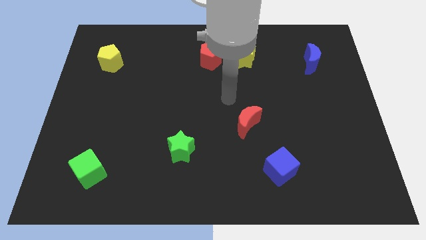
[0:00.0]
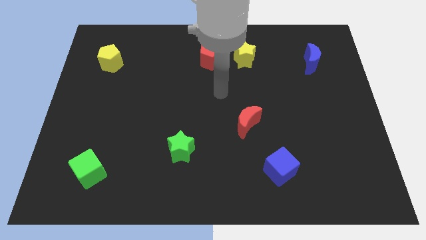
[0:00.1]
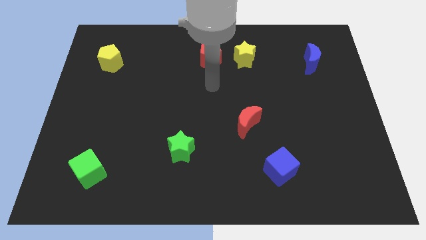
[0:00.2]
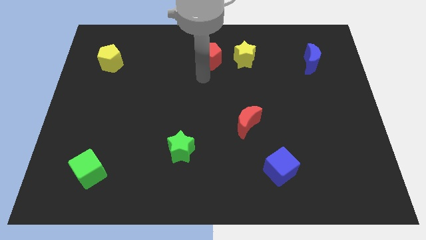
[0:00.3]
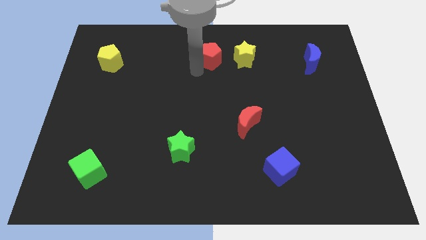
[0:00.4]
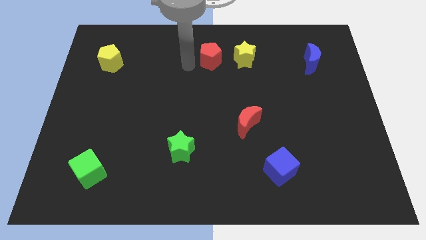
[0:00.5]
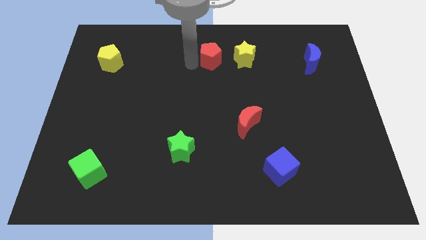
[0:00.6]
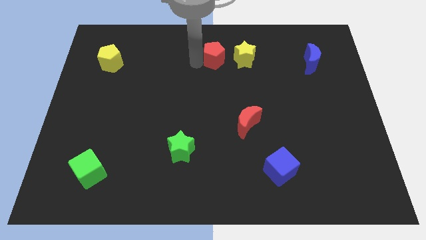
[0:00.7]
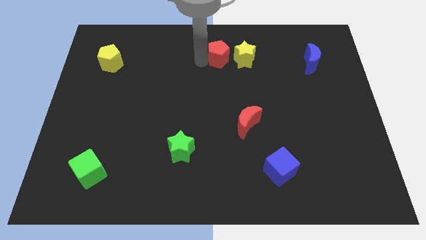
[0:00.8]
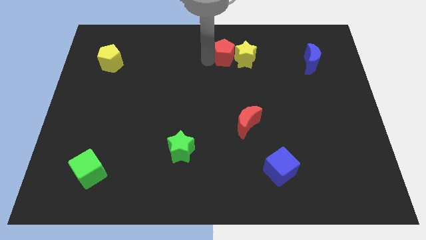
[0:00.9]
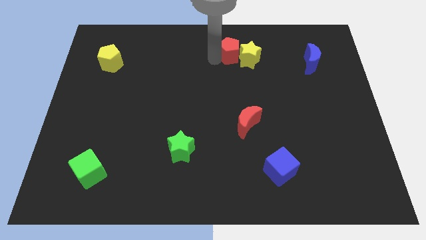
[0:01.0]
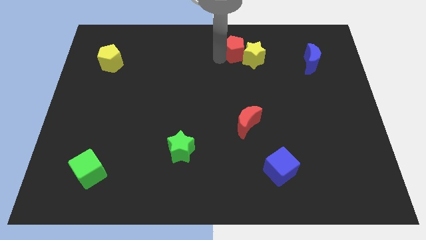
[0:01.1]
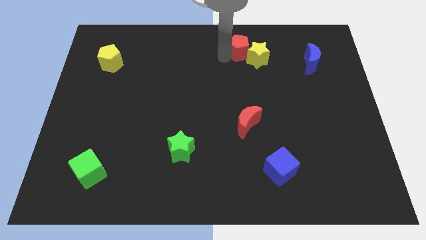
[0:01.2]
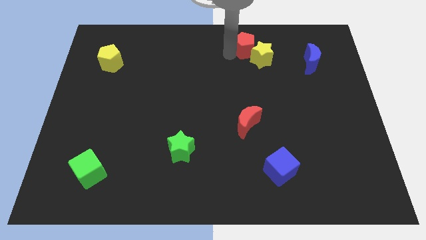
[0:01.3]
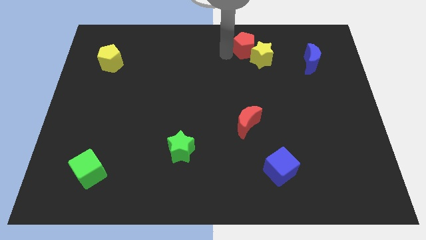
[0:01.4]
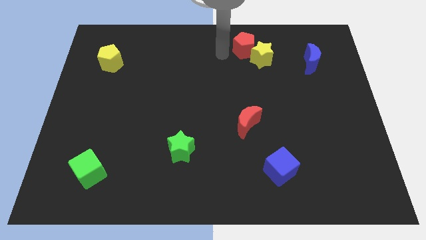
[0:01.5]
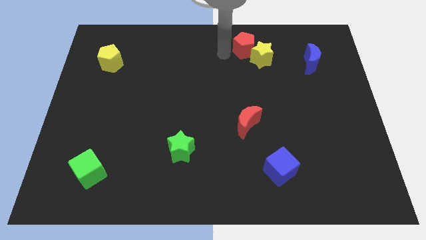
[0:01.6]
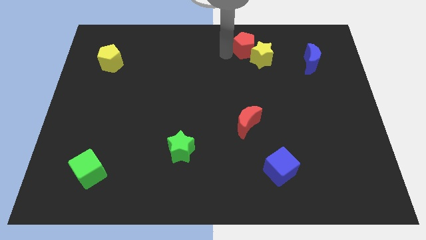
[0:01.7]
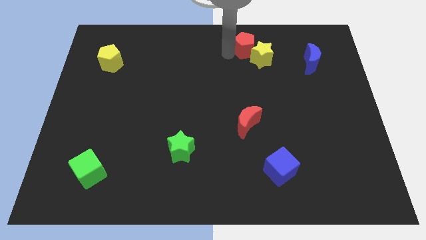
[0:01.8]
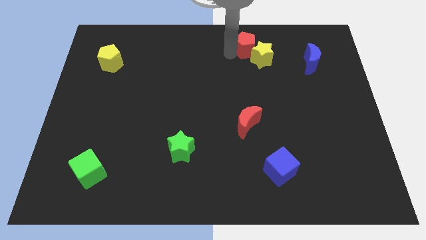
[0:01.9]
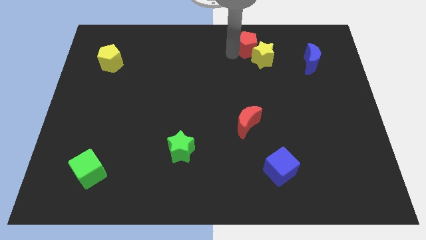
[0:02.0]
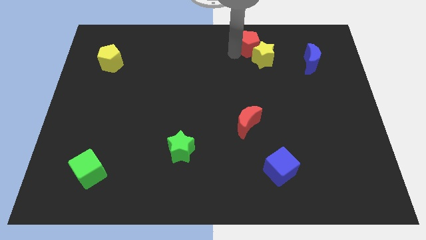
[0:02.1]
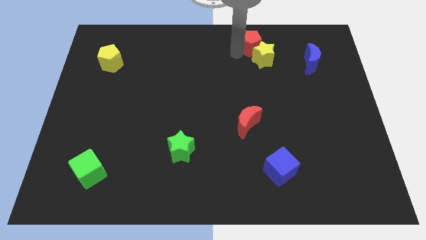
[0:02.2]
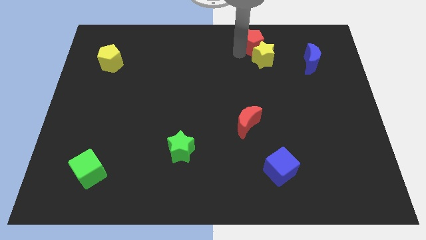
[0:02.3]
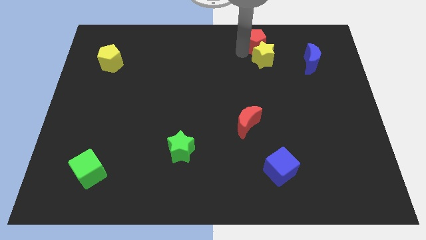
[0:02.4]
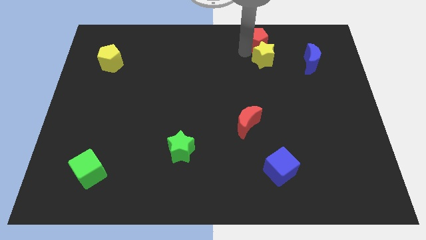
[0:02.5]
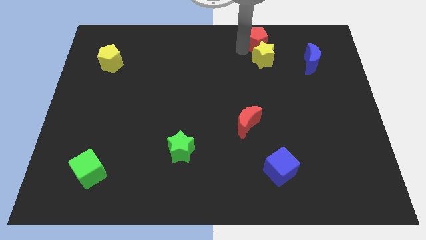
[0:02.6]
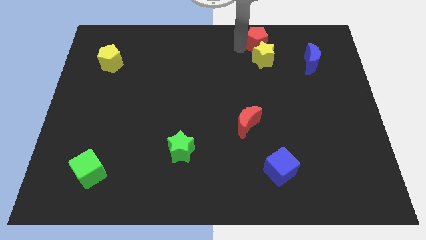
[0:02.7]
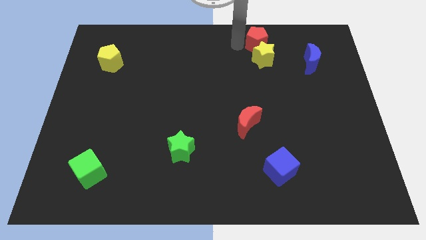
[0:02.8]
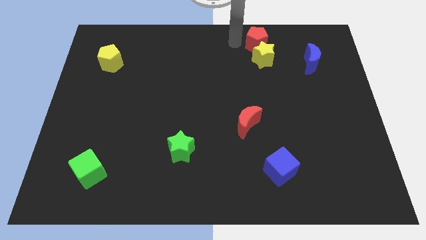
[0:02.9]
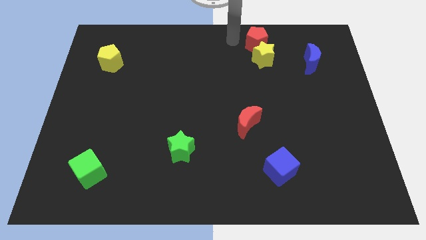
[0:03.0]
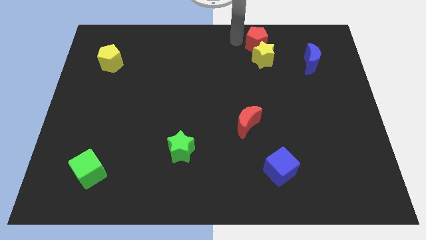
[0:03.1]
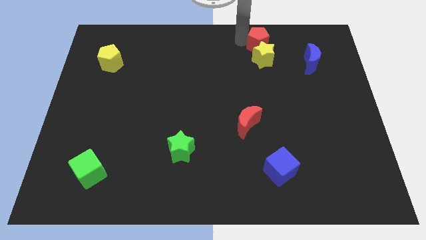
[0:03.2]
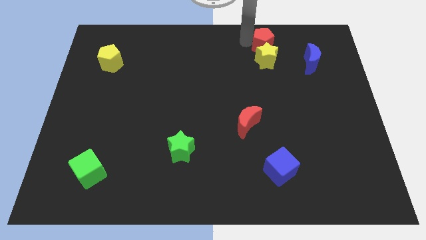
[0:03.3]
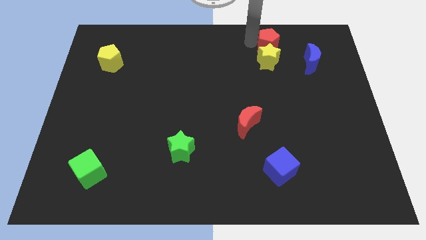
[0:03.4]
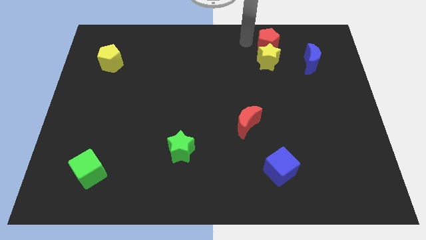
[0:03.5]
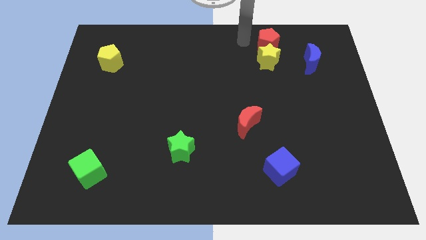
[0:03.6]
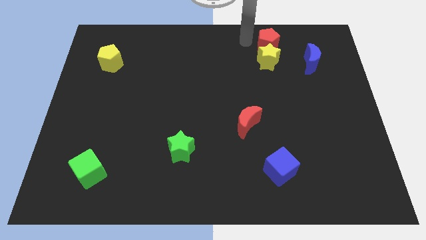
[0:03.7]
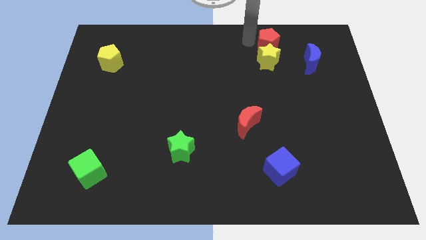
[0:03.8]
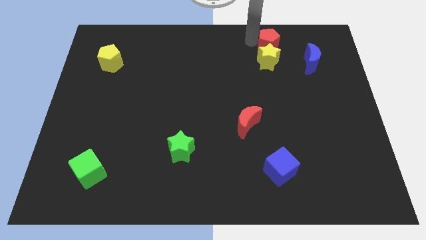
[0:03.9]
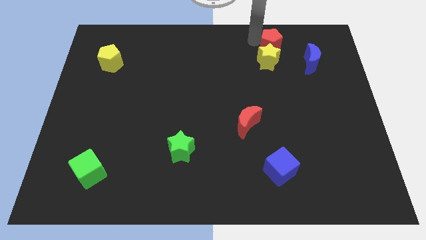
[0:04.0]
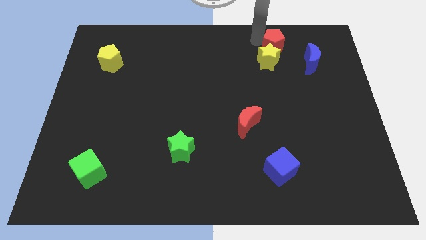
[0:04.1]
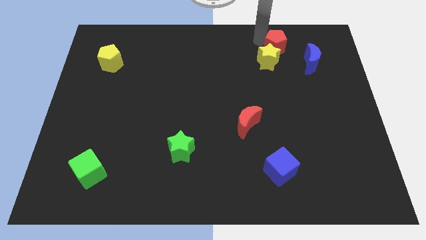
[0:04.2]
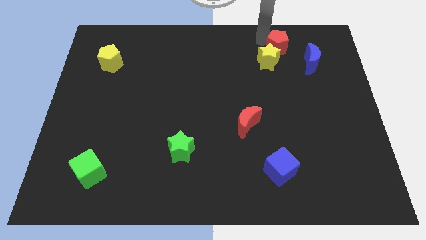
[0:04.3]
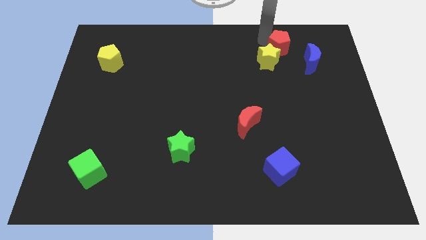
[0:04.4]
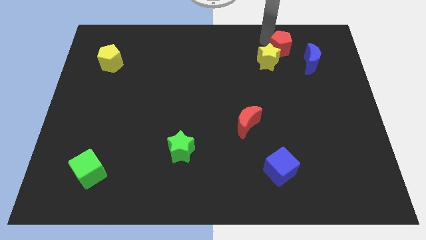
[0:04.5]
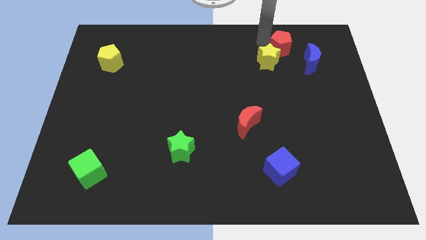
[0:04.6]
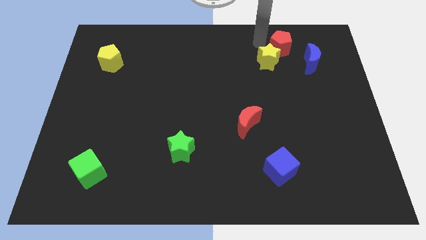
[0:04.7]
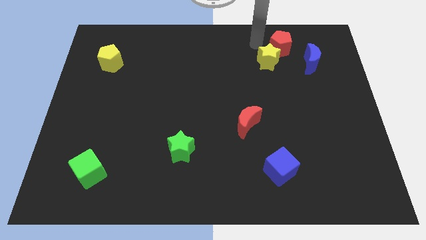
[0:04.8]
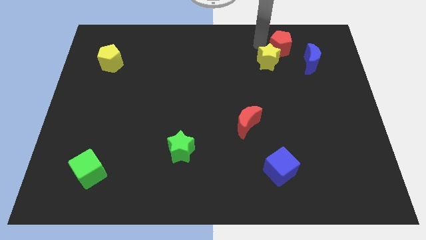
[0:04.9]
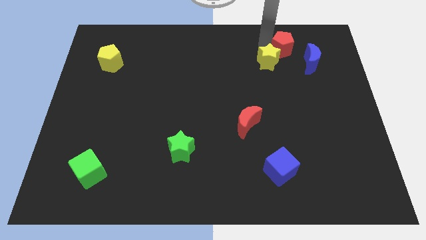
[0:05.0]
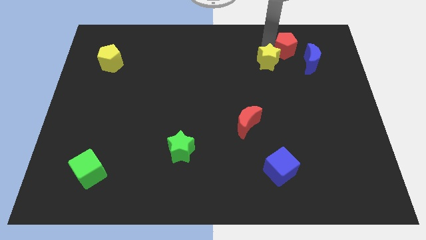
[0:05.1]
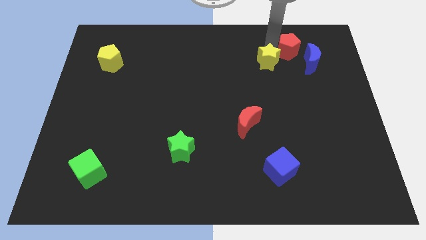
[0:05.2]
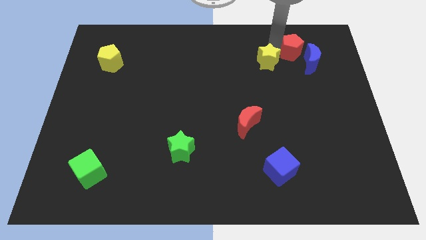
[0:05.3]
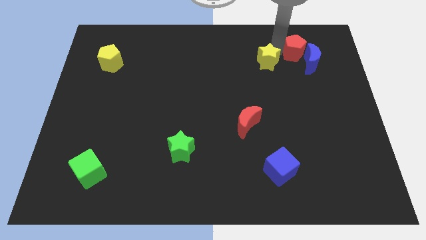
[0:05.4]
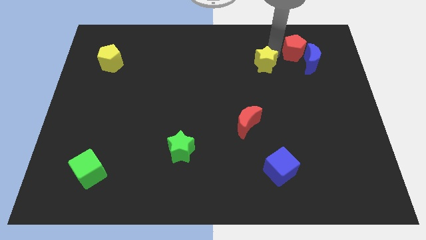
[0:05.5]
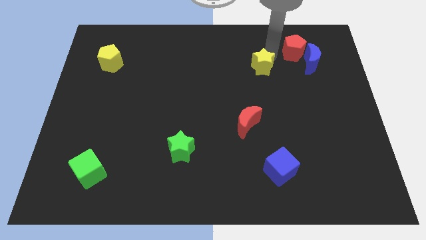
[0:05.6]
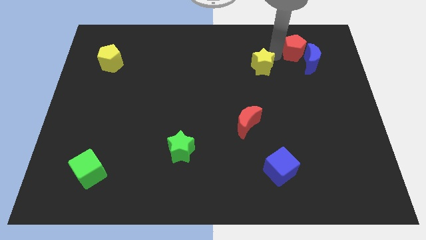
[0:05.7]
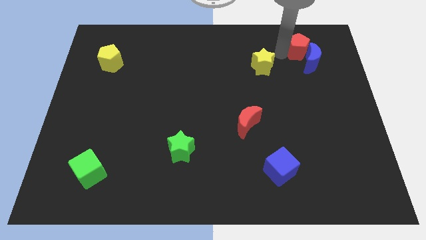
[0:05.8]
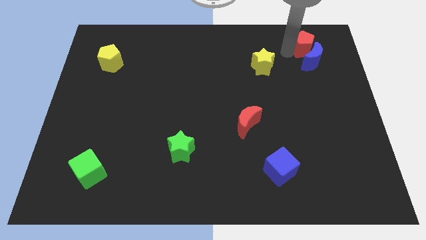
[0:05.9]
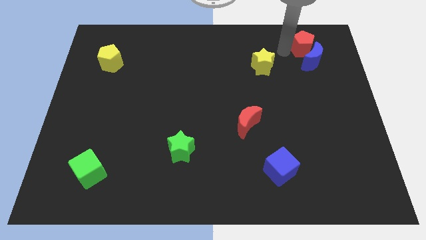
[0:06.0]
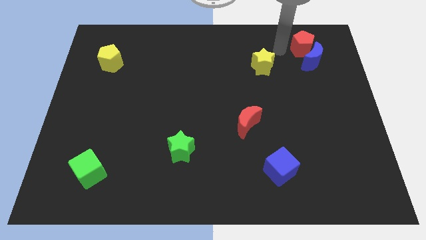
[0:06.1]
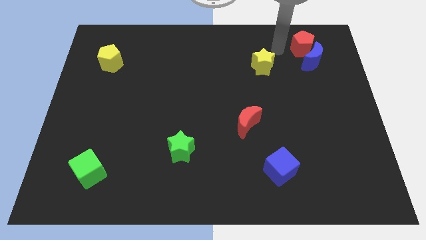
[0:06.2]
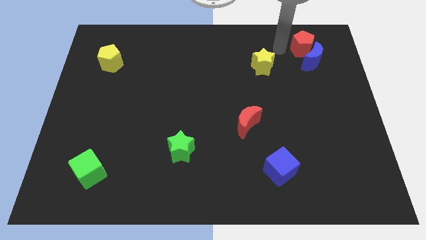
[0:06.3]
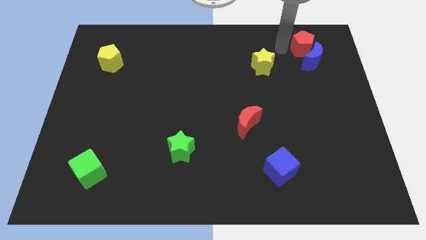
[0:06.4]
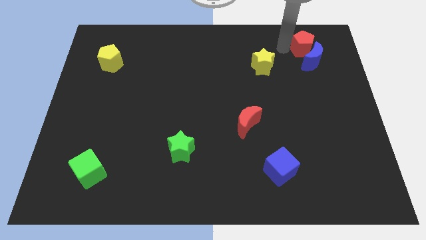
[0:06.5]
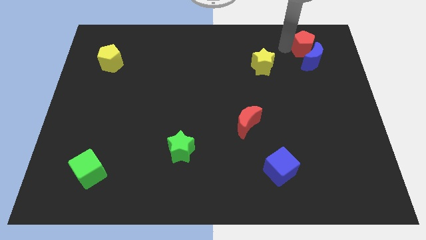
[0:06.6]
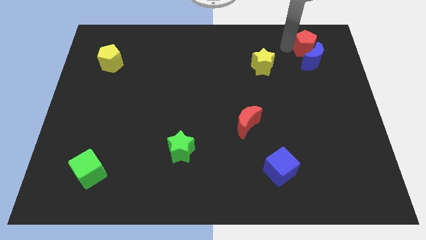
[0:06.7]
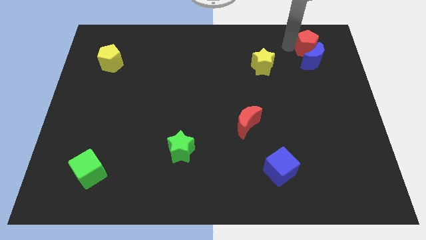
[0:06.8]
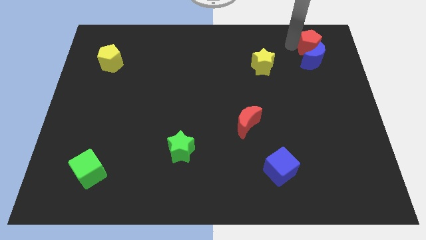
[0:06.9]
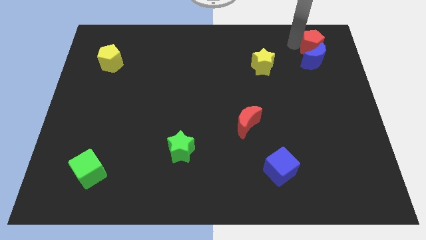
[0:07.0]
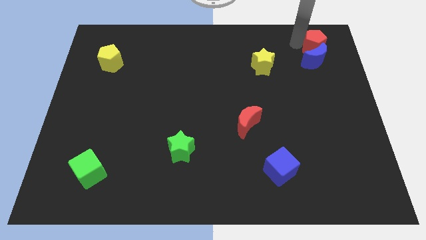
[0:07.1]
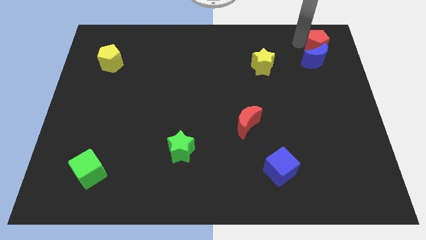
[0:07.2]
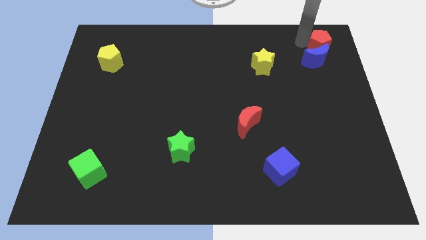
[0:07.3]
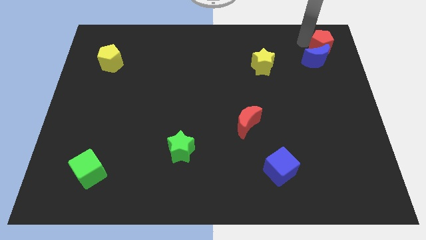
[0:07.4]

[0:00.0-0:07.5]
move the red pentagon to the top right corner
